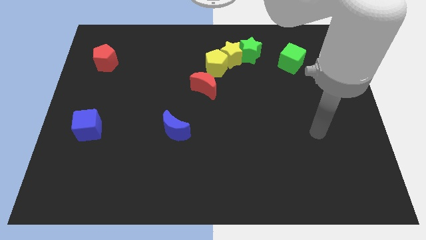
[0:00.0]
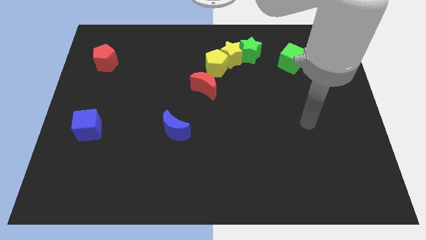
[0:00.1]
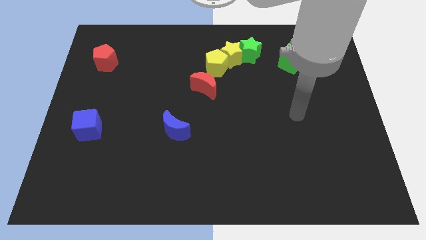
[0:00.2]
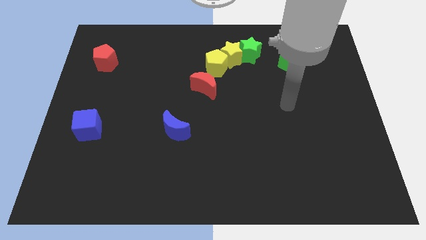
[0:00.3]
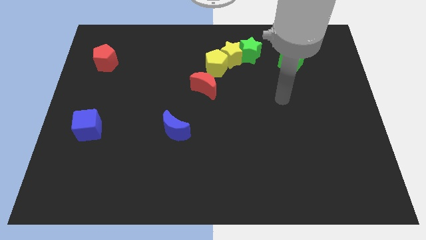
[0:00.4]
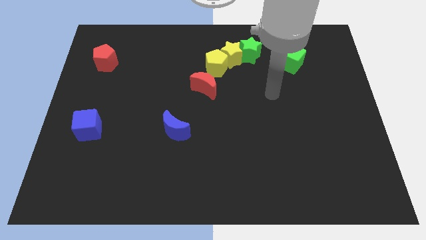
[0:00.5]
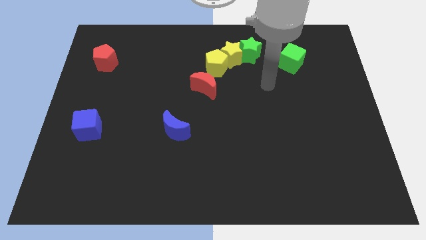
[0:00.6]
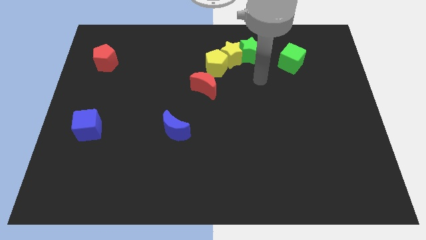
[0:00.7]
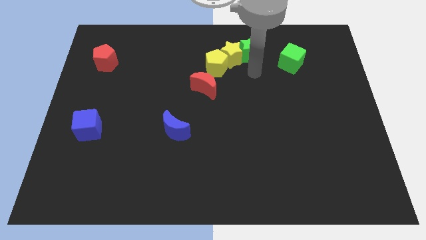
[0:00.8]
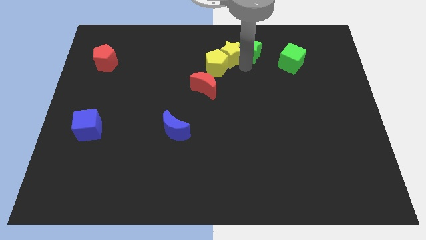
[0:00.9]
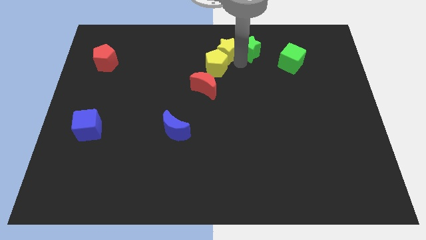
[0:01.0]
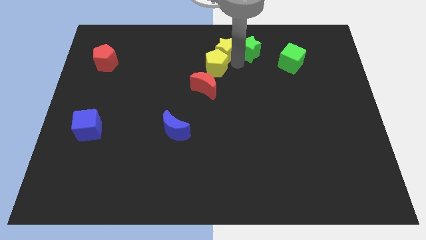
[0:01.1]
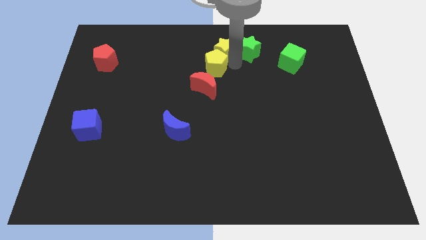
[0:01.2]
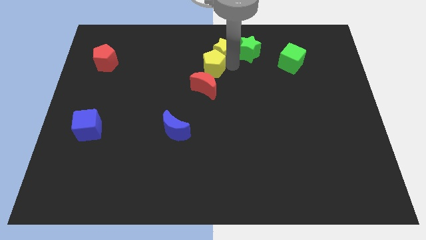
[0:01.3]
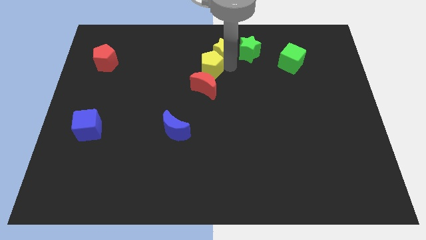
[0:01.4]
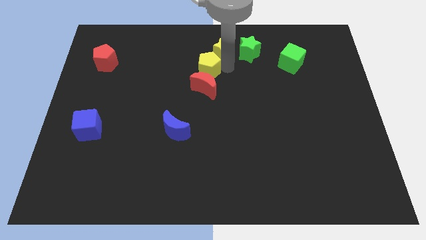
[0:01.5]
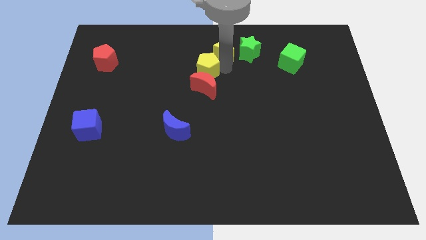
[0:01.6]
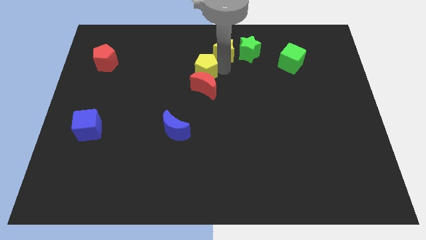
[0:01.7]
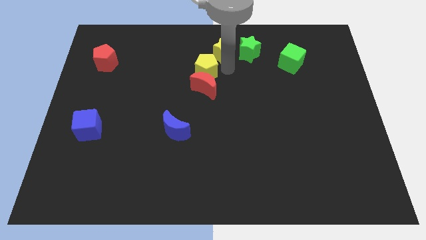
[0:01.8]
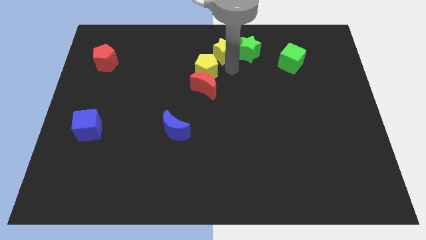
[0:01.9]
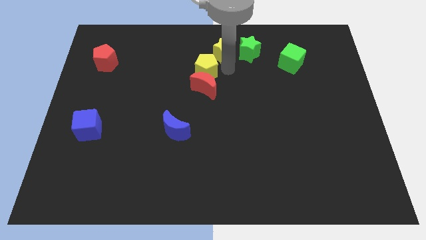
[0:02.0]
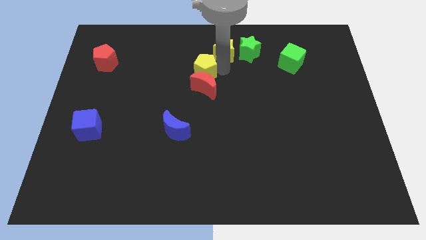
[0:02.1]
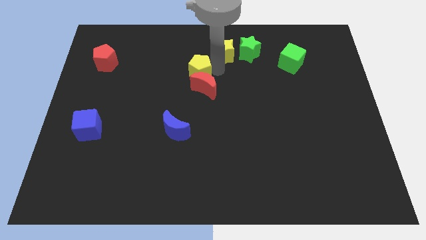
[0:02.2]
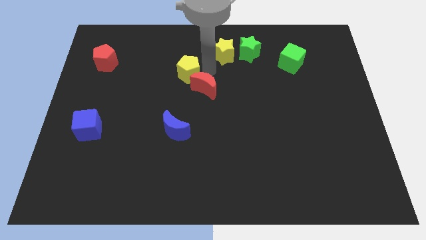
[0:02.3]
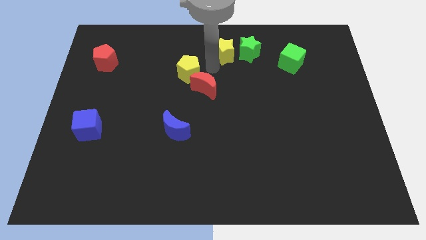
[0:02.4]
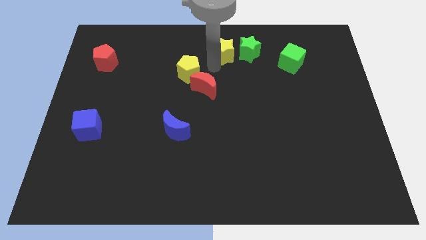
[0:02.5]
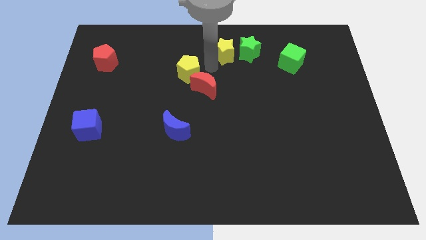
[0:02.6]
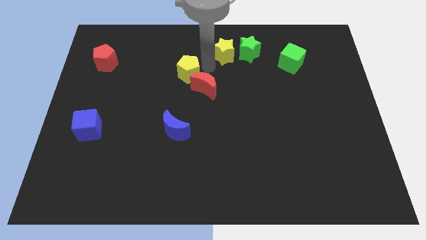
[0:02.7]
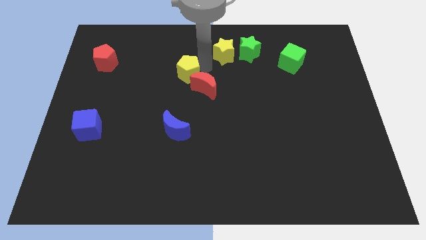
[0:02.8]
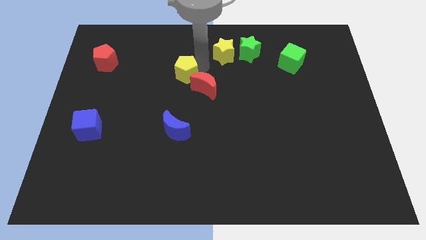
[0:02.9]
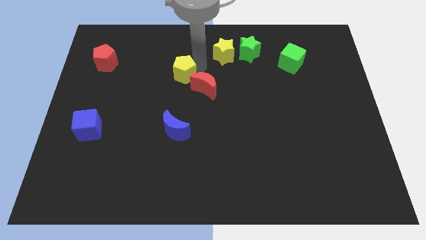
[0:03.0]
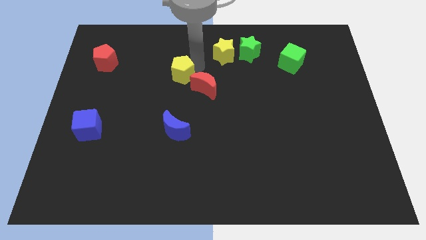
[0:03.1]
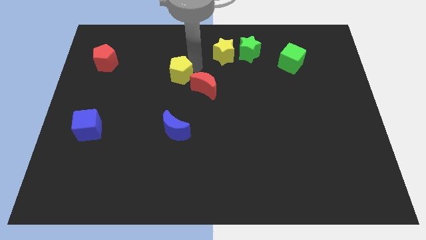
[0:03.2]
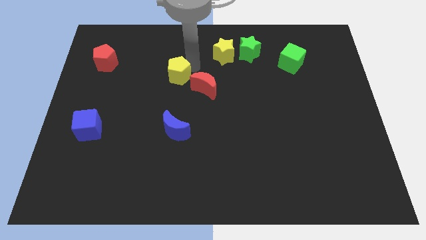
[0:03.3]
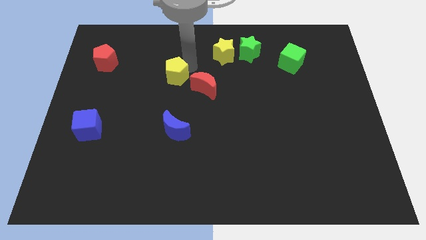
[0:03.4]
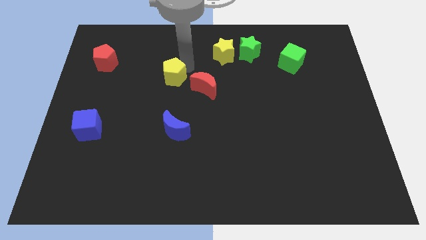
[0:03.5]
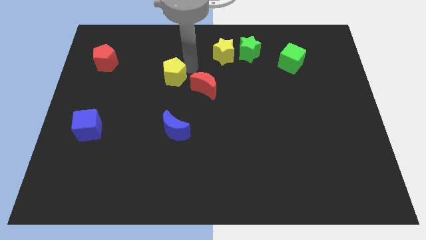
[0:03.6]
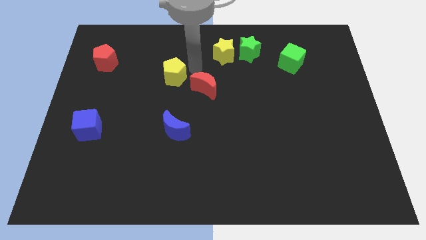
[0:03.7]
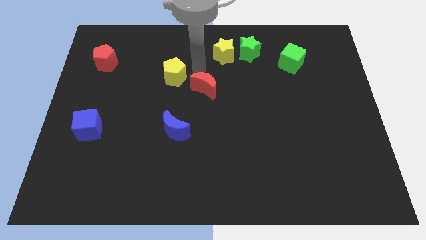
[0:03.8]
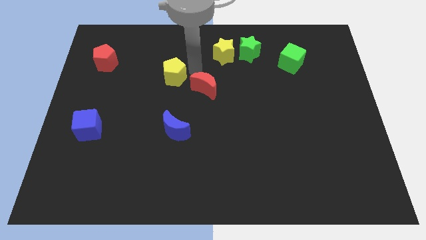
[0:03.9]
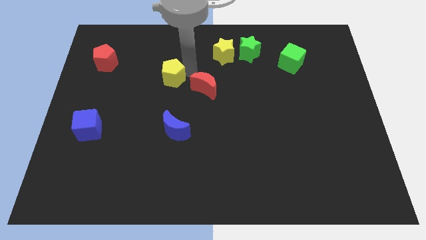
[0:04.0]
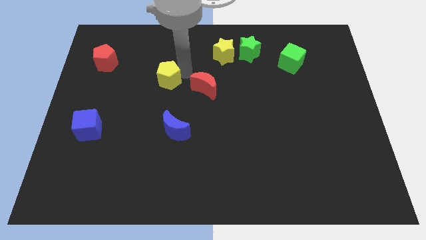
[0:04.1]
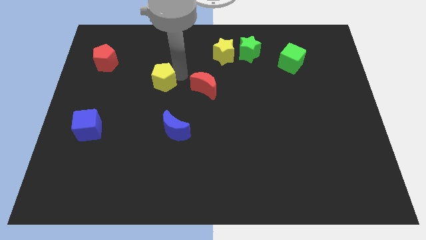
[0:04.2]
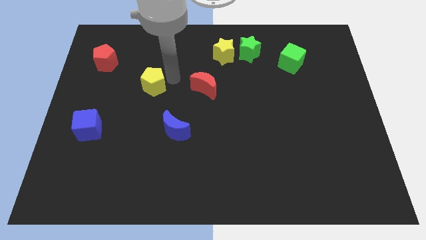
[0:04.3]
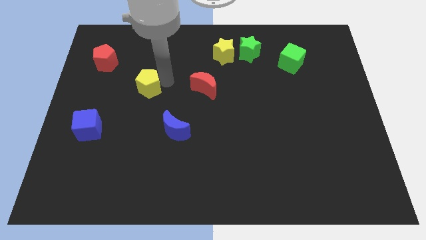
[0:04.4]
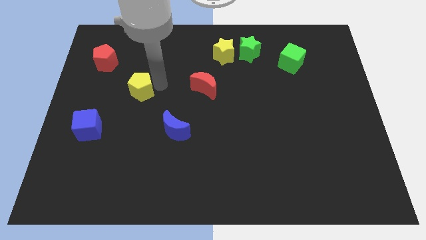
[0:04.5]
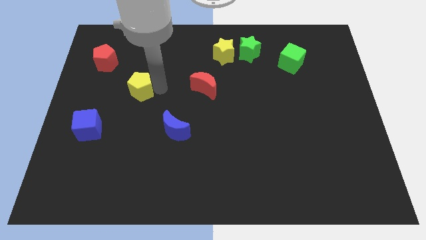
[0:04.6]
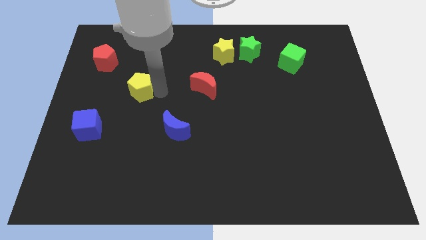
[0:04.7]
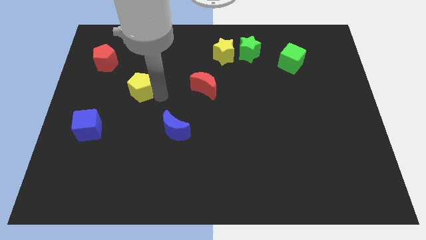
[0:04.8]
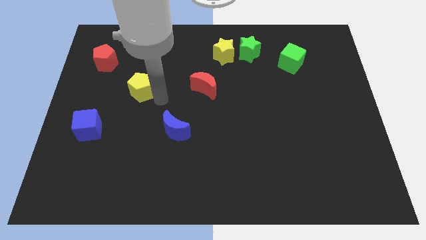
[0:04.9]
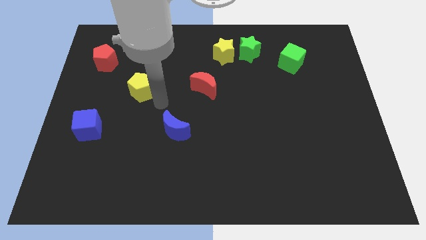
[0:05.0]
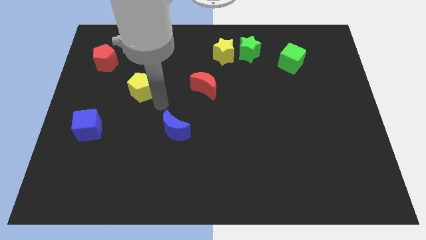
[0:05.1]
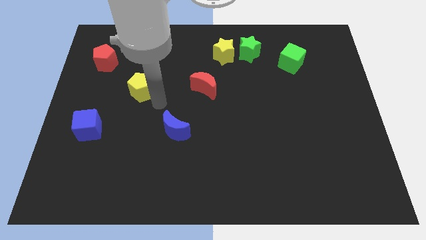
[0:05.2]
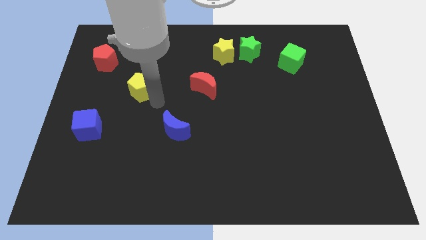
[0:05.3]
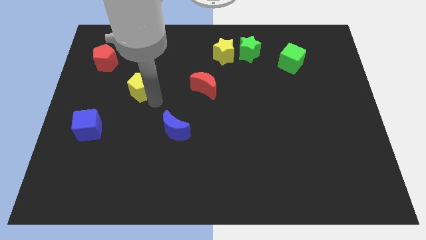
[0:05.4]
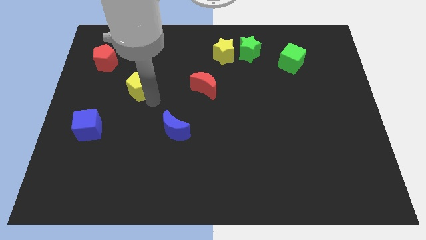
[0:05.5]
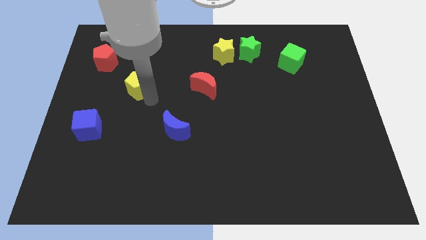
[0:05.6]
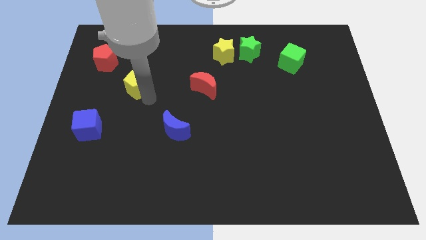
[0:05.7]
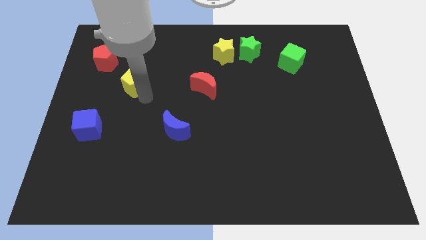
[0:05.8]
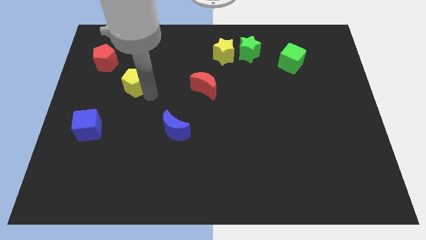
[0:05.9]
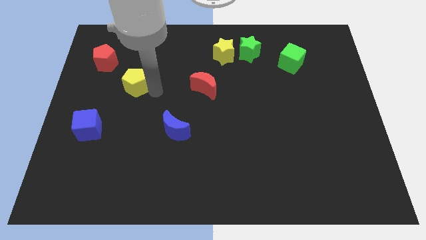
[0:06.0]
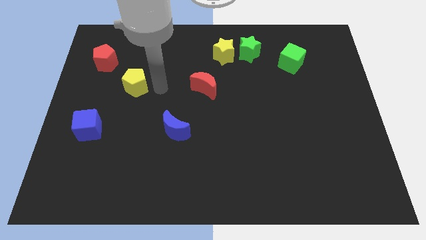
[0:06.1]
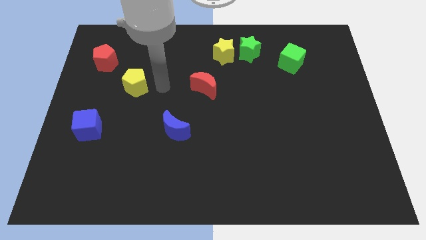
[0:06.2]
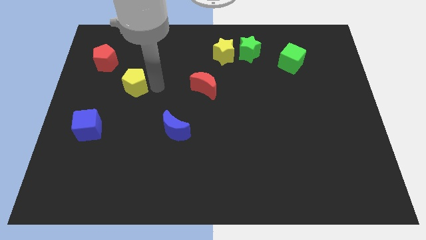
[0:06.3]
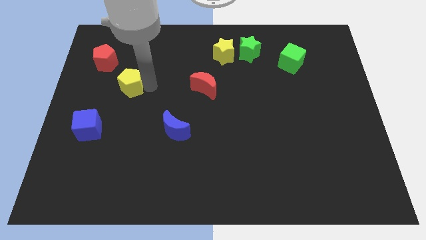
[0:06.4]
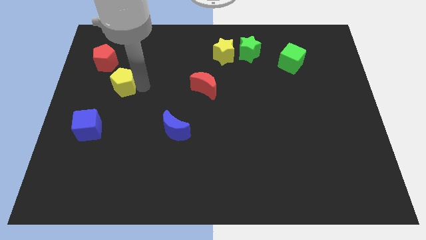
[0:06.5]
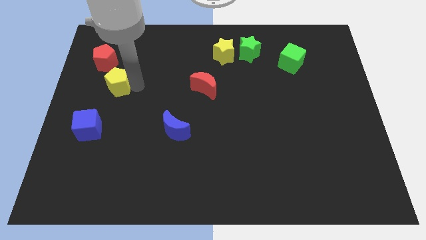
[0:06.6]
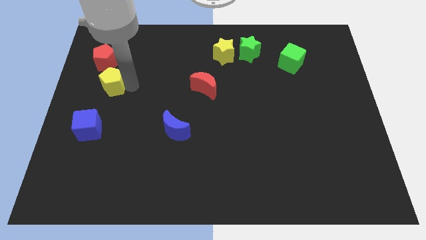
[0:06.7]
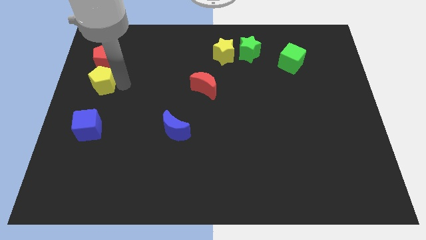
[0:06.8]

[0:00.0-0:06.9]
slide the yellow pentagon to the left side of the board

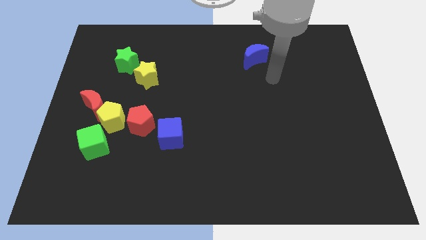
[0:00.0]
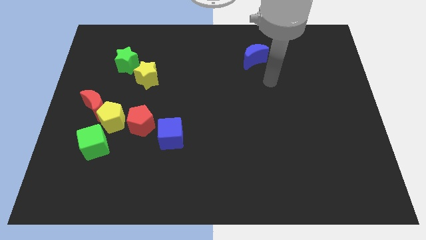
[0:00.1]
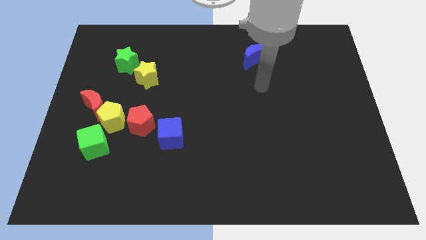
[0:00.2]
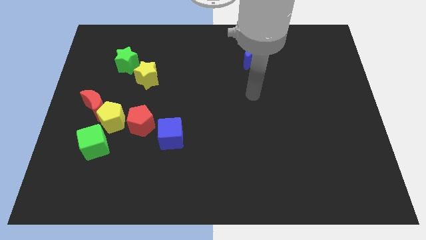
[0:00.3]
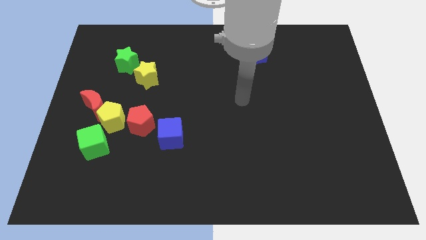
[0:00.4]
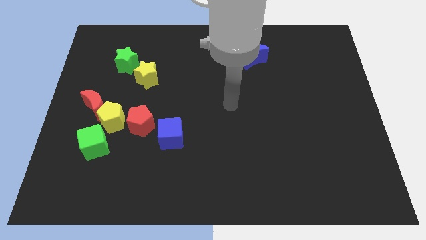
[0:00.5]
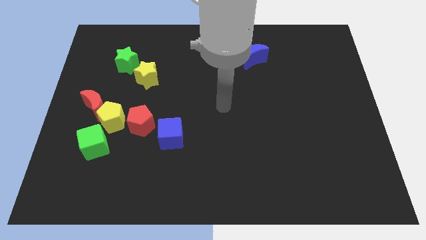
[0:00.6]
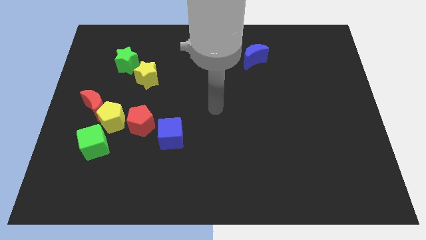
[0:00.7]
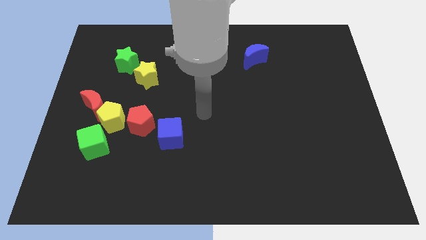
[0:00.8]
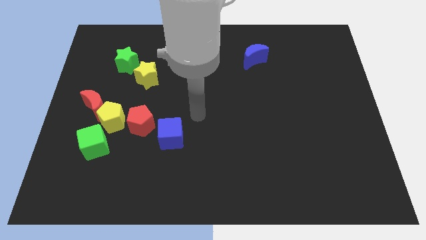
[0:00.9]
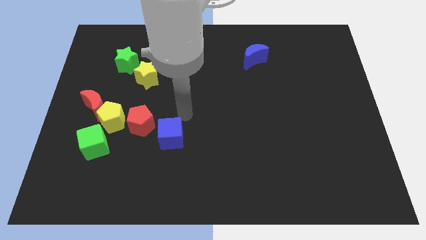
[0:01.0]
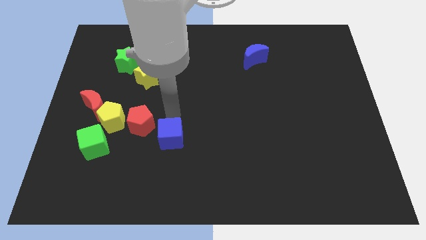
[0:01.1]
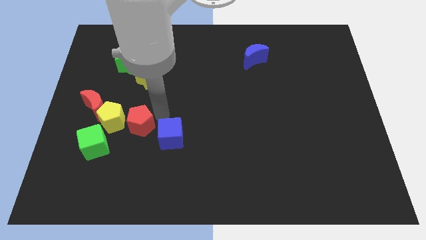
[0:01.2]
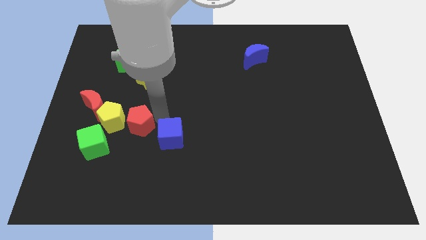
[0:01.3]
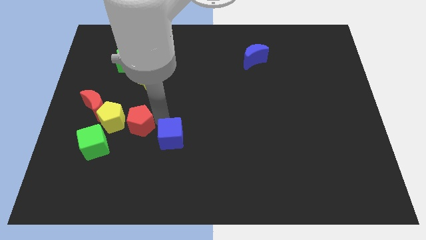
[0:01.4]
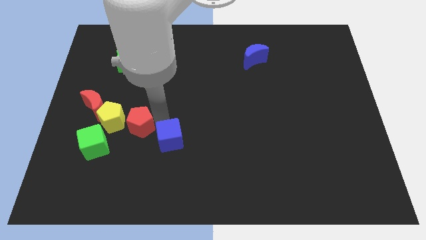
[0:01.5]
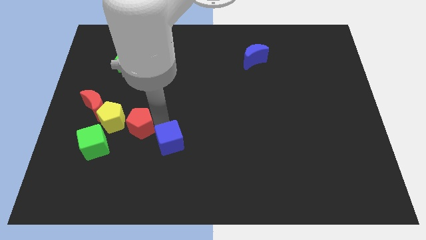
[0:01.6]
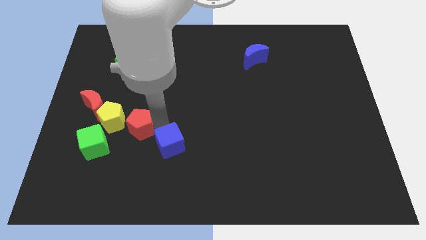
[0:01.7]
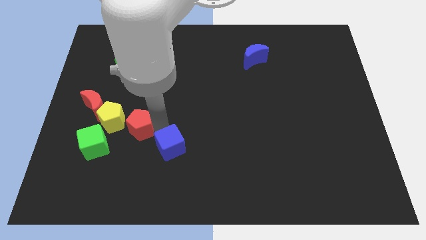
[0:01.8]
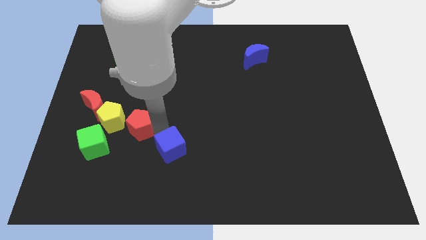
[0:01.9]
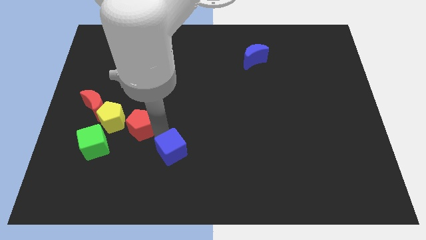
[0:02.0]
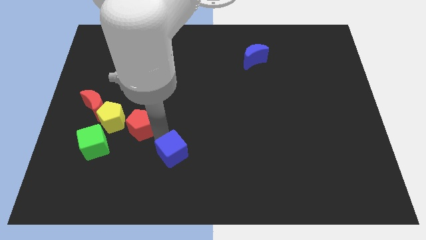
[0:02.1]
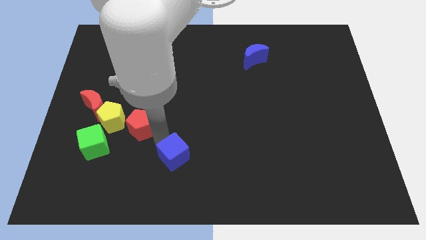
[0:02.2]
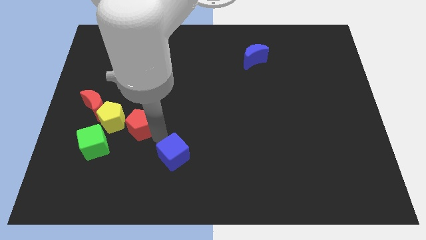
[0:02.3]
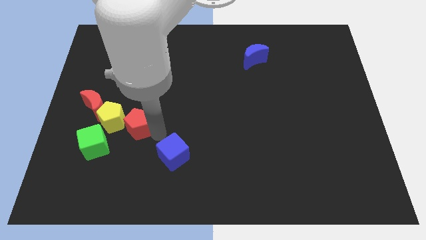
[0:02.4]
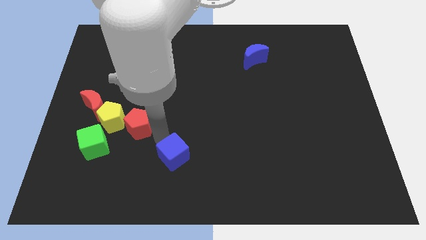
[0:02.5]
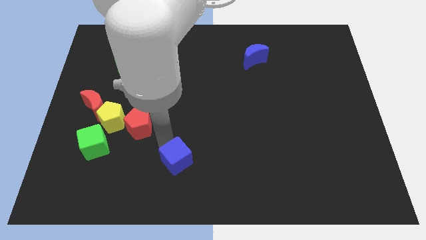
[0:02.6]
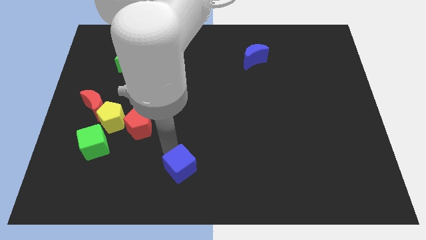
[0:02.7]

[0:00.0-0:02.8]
put the blue cube to the bottom side
